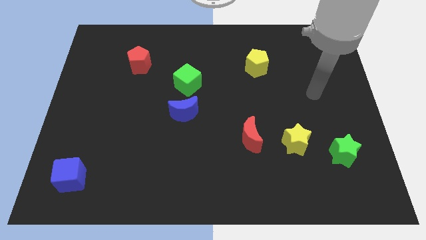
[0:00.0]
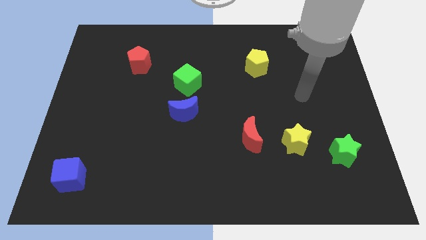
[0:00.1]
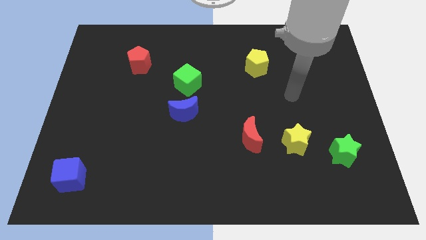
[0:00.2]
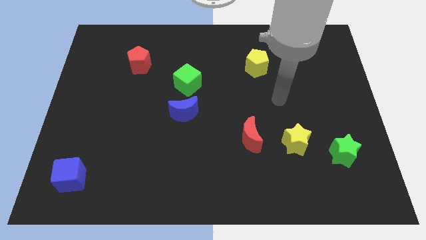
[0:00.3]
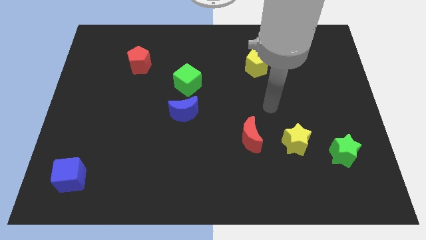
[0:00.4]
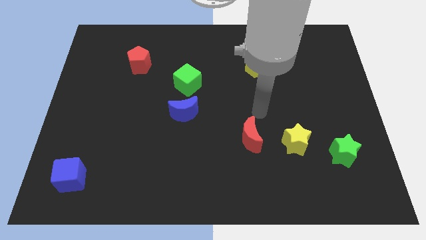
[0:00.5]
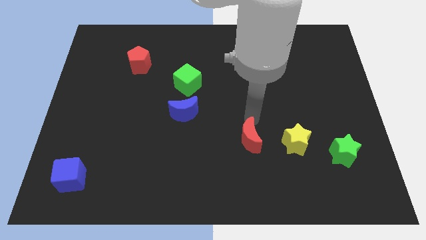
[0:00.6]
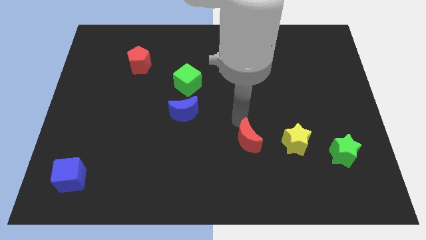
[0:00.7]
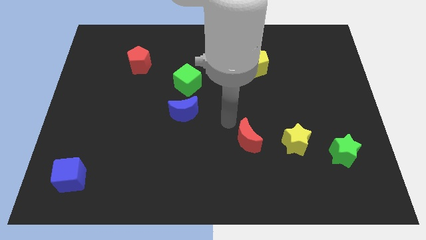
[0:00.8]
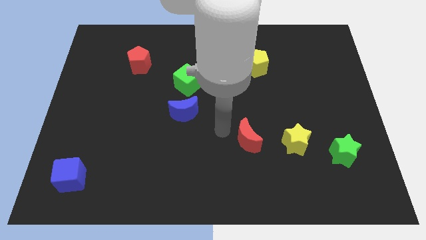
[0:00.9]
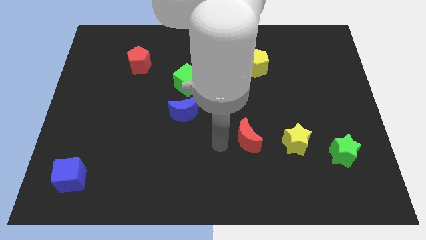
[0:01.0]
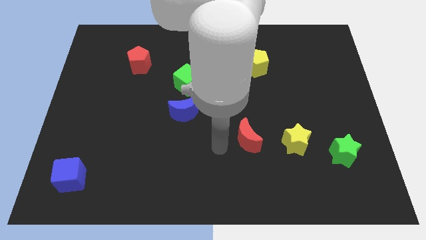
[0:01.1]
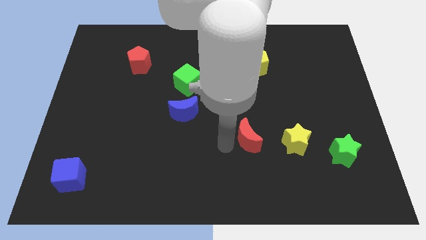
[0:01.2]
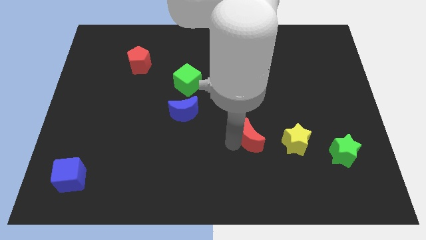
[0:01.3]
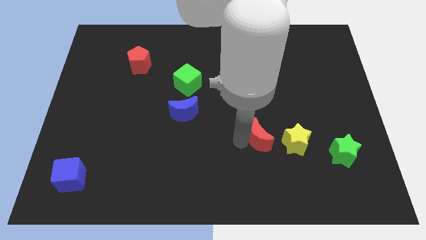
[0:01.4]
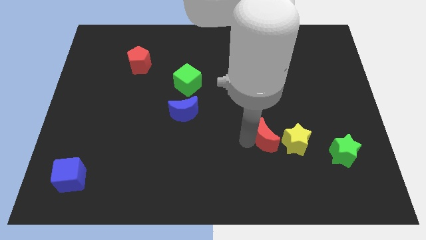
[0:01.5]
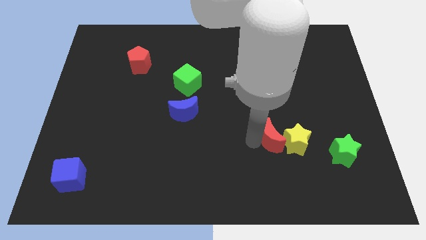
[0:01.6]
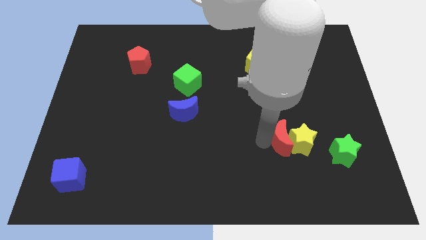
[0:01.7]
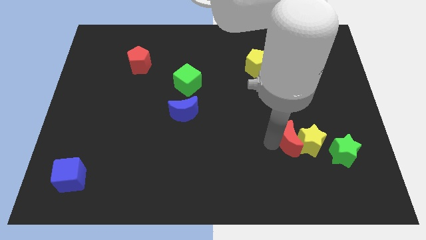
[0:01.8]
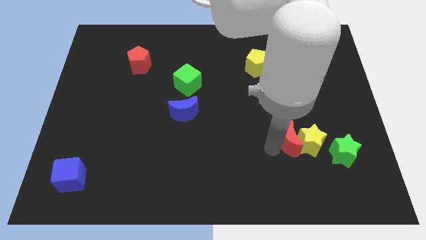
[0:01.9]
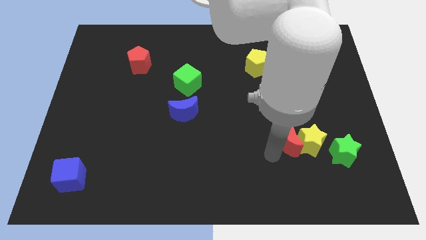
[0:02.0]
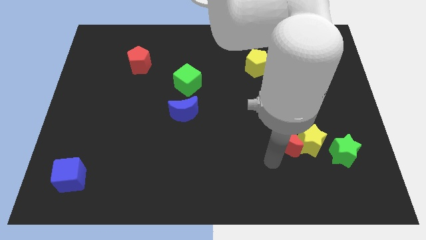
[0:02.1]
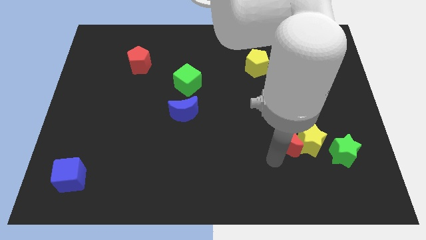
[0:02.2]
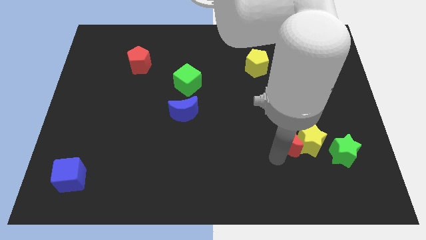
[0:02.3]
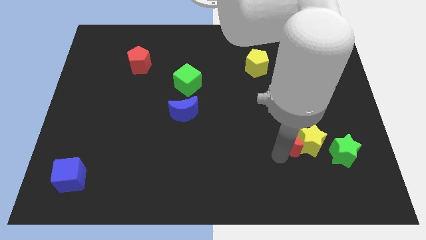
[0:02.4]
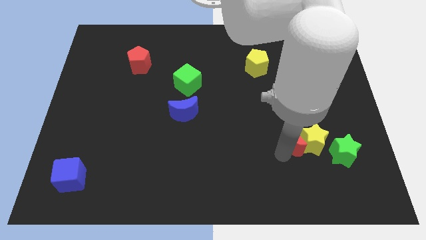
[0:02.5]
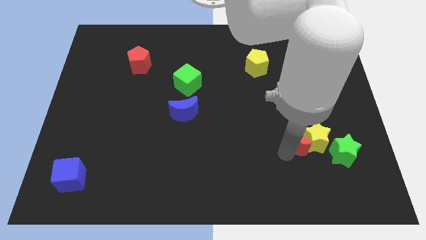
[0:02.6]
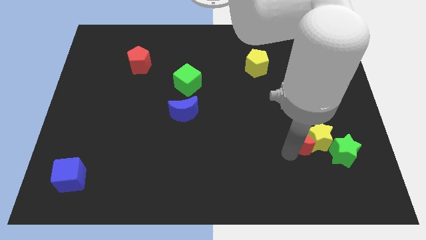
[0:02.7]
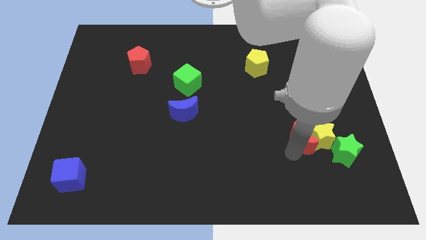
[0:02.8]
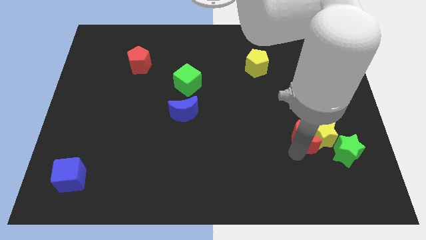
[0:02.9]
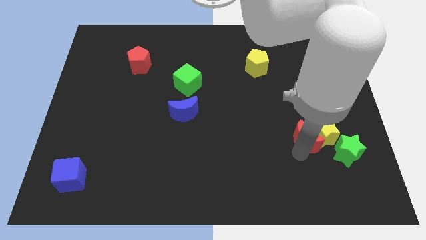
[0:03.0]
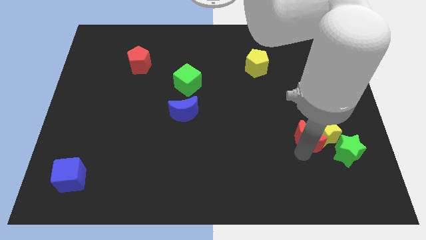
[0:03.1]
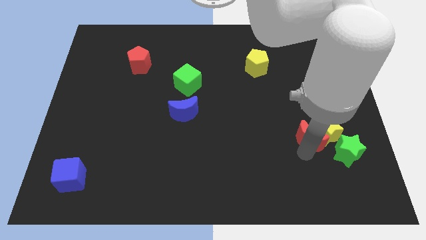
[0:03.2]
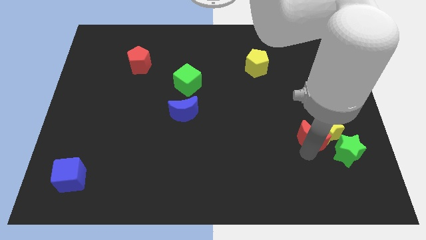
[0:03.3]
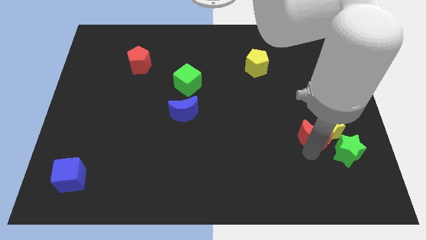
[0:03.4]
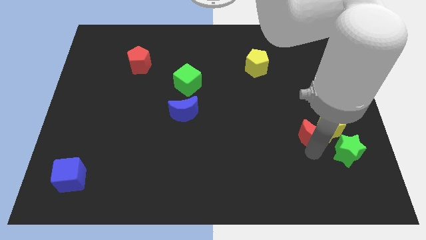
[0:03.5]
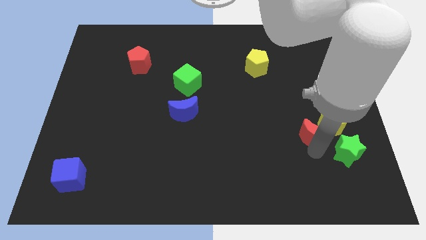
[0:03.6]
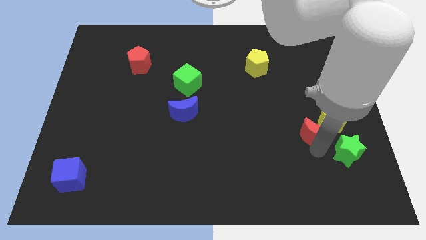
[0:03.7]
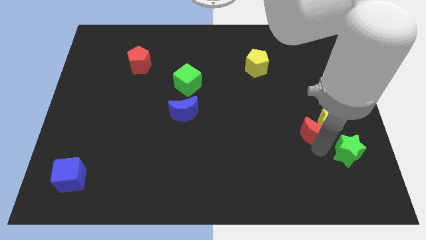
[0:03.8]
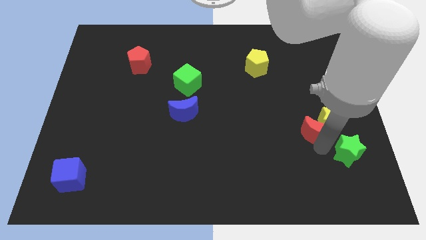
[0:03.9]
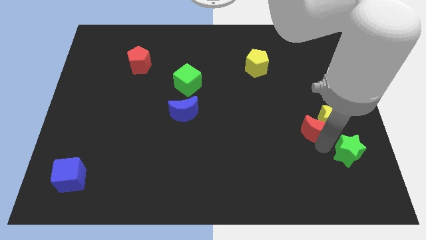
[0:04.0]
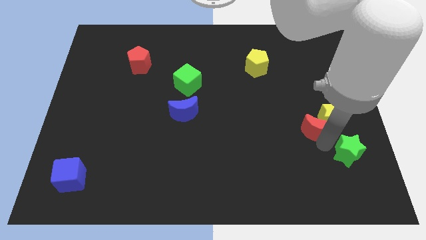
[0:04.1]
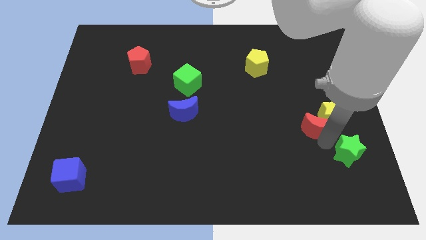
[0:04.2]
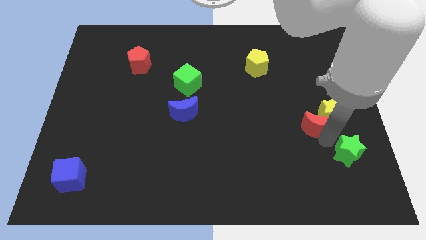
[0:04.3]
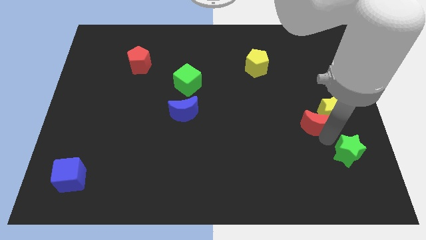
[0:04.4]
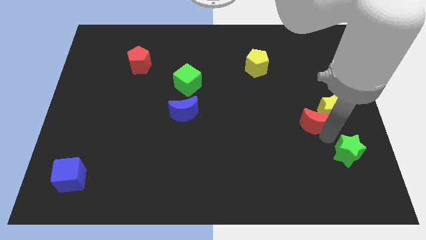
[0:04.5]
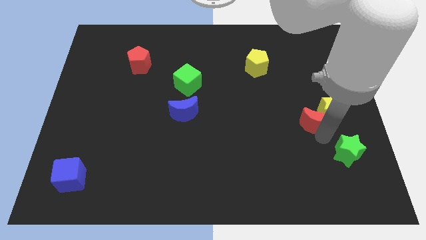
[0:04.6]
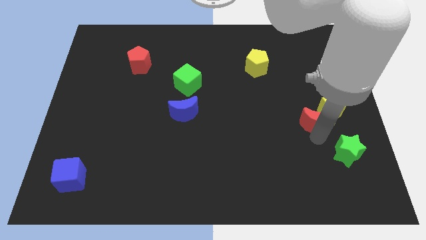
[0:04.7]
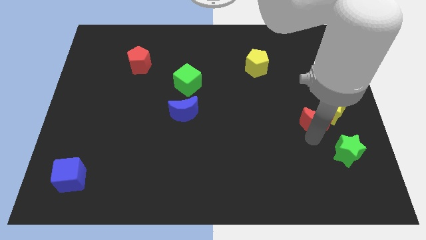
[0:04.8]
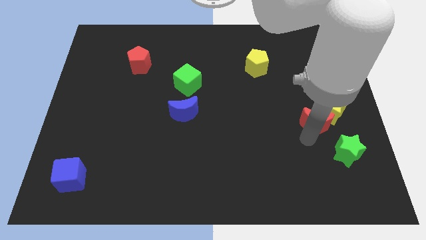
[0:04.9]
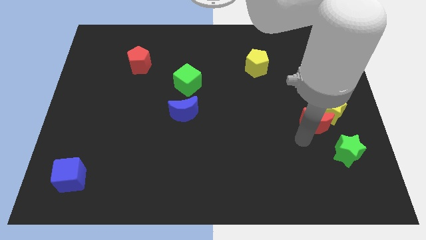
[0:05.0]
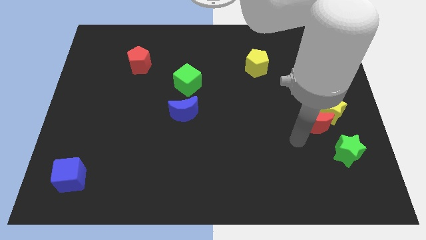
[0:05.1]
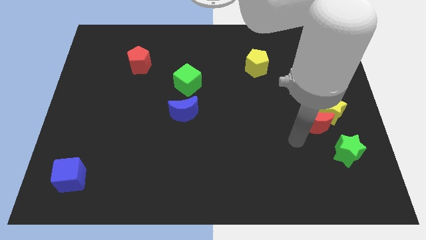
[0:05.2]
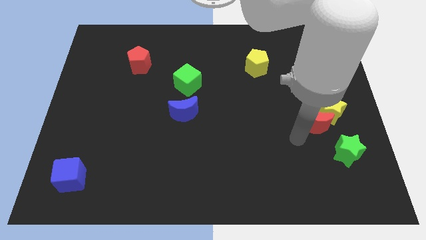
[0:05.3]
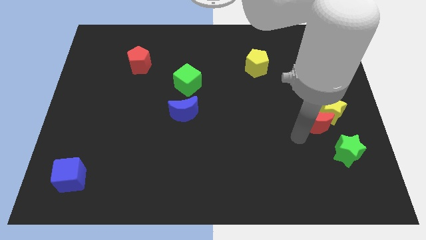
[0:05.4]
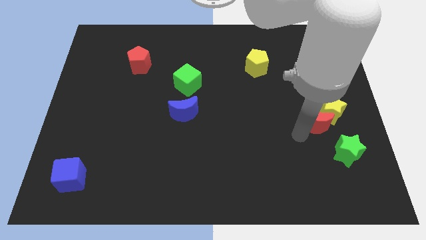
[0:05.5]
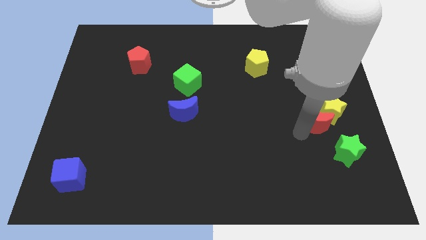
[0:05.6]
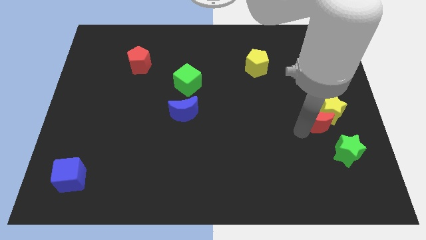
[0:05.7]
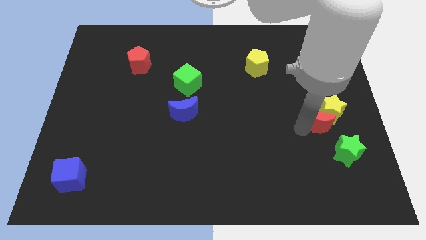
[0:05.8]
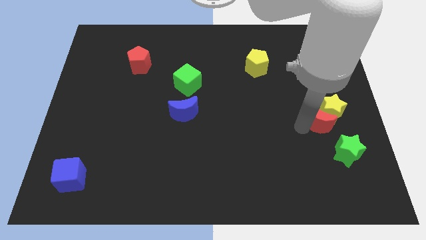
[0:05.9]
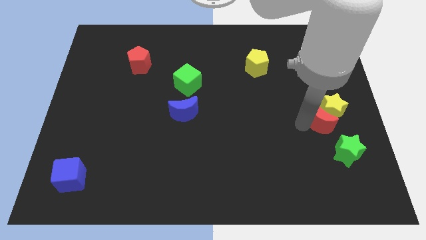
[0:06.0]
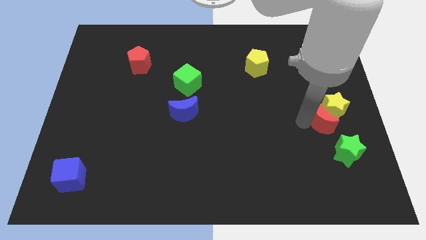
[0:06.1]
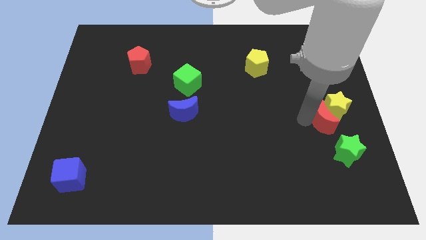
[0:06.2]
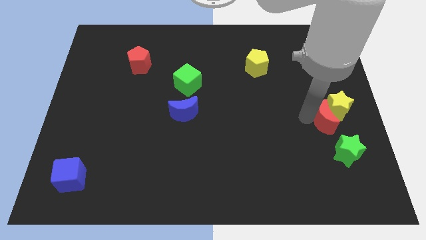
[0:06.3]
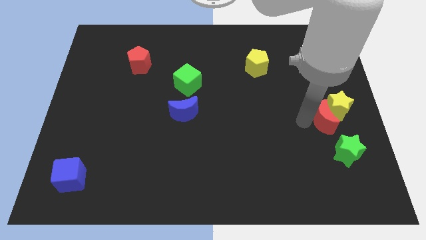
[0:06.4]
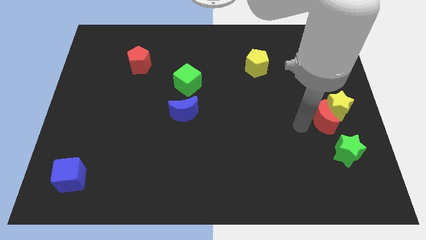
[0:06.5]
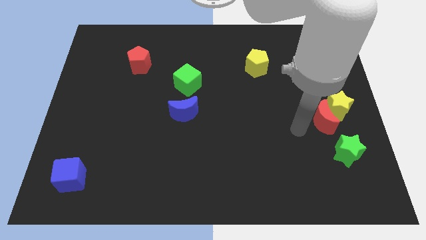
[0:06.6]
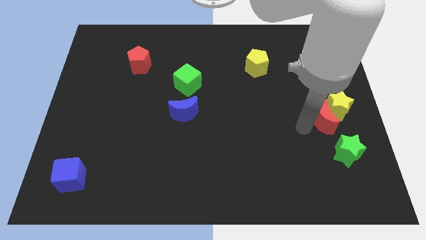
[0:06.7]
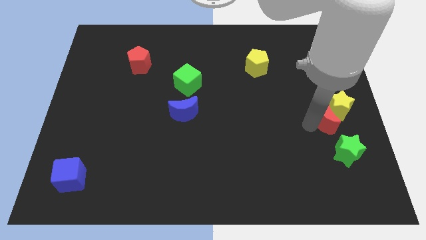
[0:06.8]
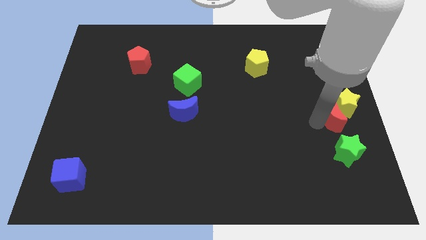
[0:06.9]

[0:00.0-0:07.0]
push the red moon to the right side of the board
